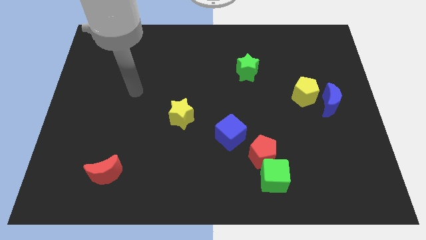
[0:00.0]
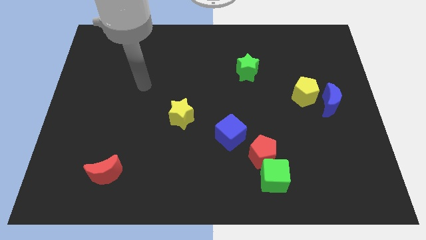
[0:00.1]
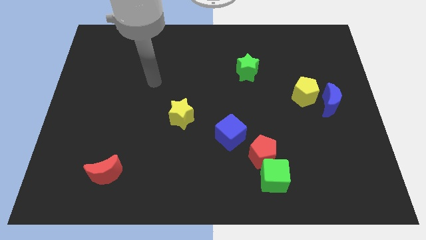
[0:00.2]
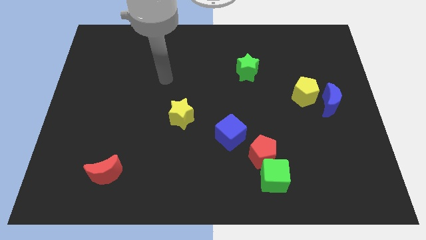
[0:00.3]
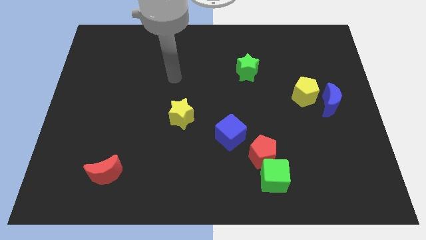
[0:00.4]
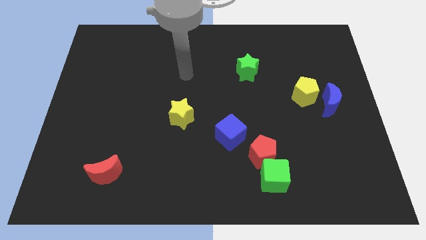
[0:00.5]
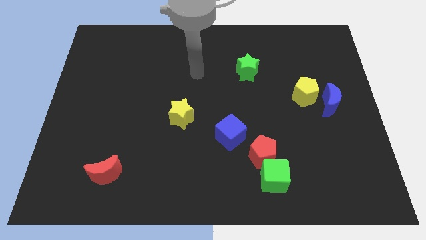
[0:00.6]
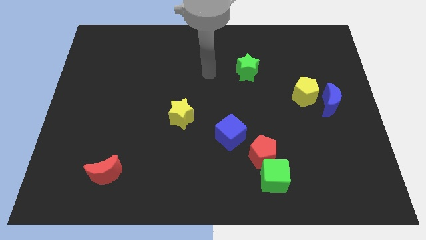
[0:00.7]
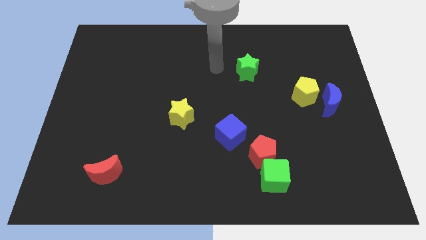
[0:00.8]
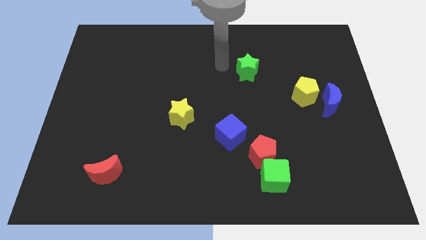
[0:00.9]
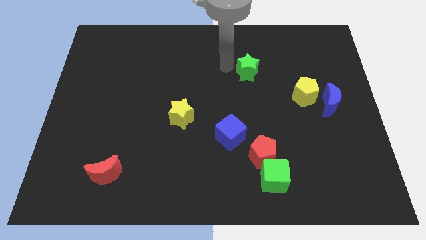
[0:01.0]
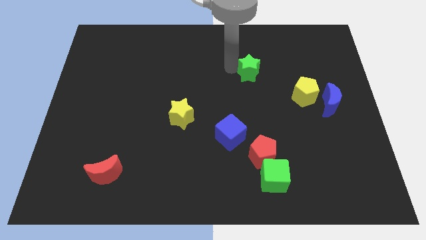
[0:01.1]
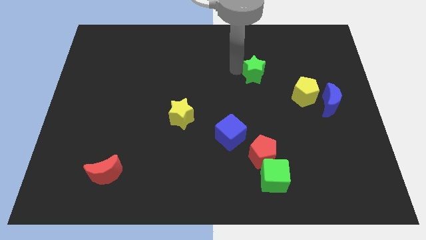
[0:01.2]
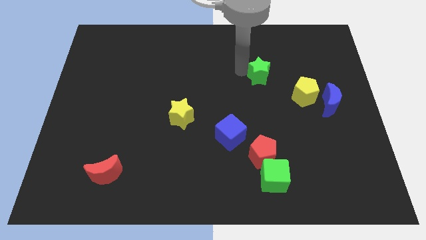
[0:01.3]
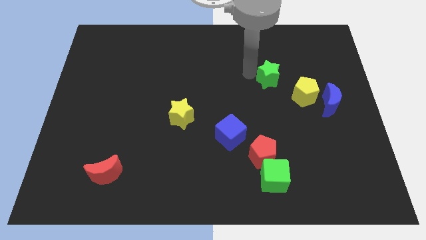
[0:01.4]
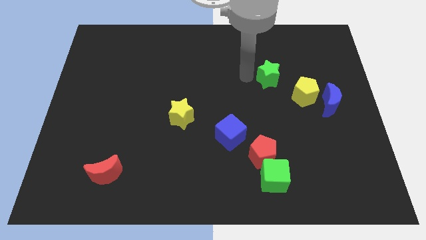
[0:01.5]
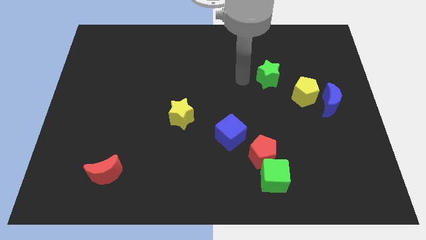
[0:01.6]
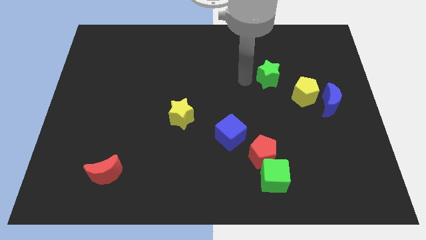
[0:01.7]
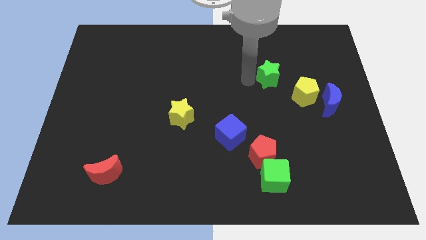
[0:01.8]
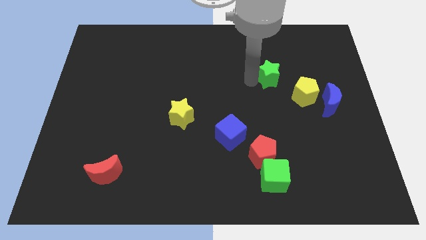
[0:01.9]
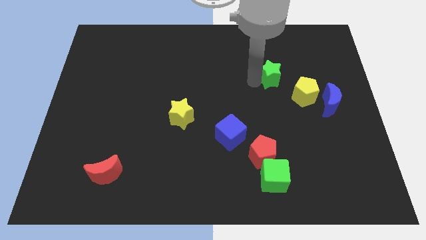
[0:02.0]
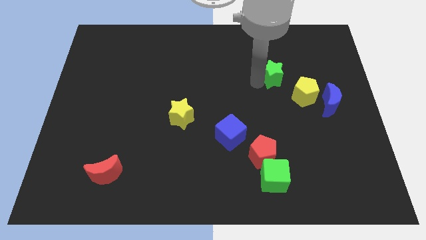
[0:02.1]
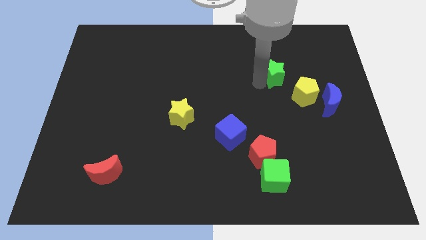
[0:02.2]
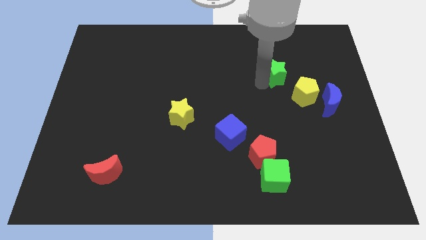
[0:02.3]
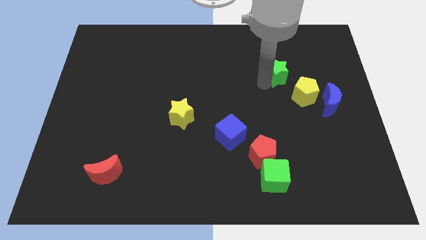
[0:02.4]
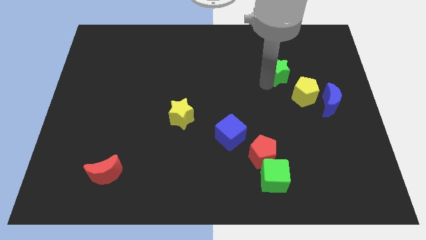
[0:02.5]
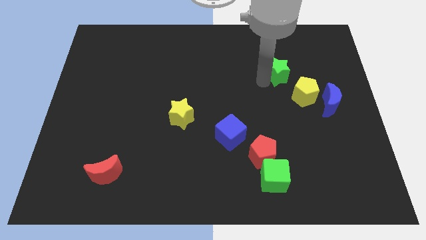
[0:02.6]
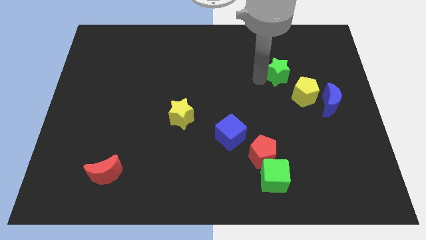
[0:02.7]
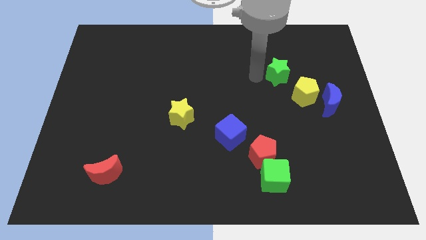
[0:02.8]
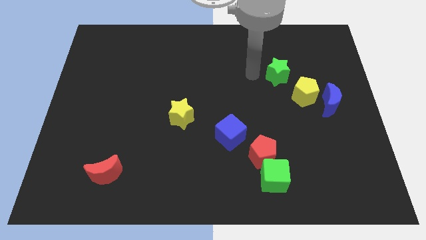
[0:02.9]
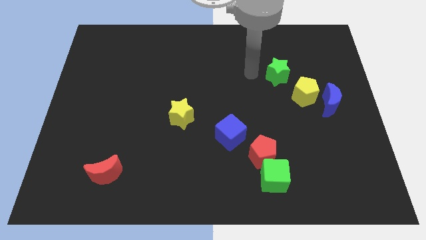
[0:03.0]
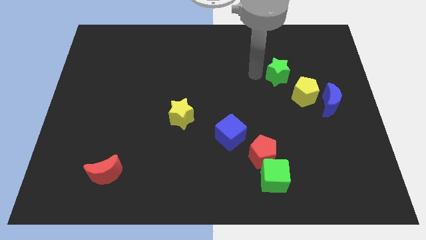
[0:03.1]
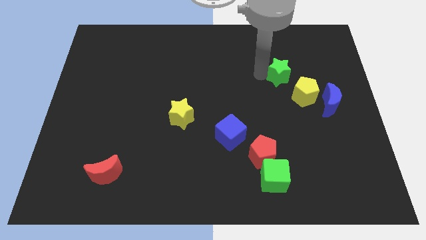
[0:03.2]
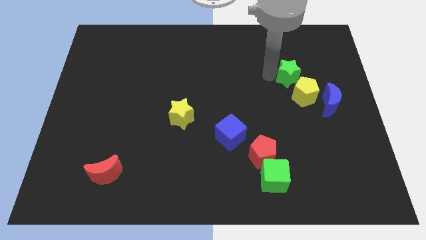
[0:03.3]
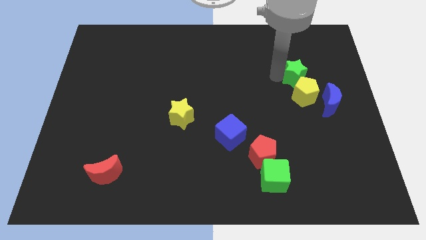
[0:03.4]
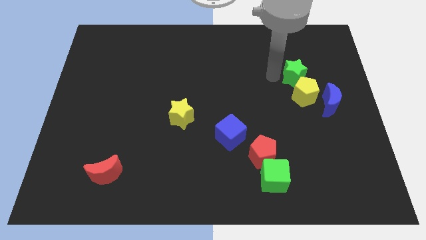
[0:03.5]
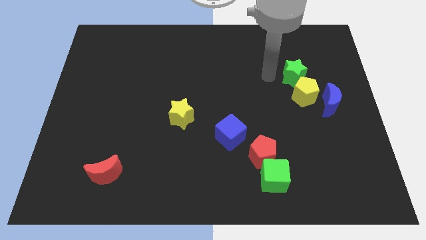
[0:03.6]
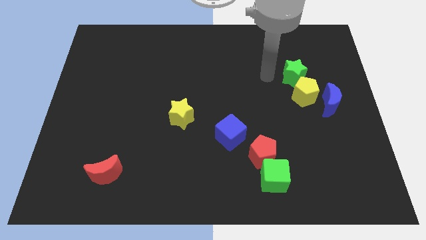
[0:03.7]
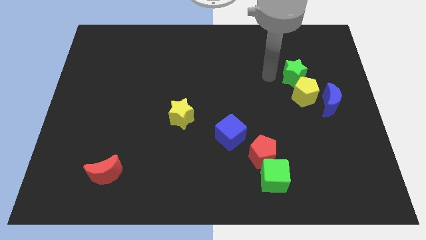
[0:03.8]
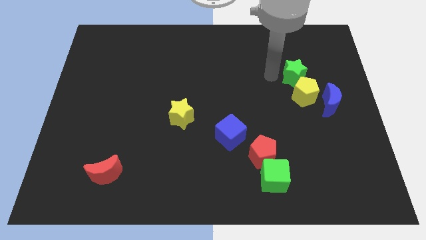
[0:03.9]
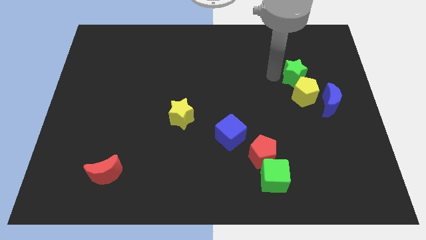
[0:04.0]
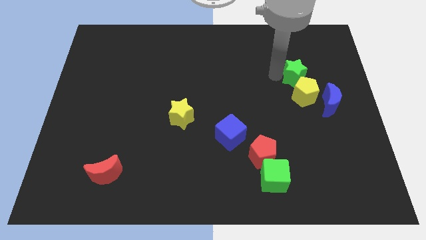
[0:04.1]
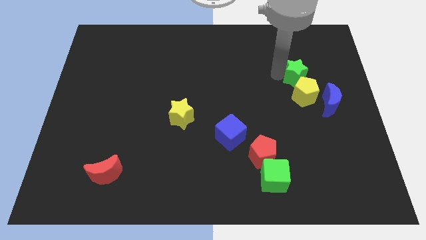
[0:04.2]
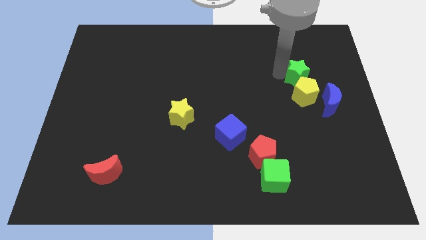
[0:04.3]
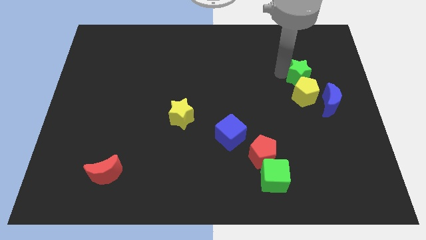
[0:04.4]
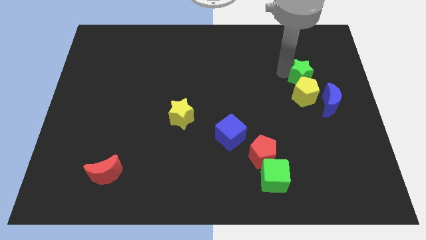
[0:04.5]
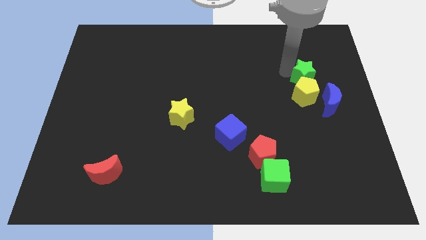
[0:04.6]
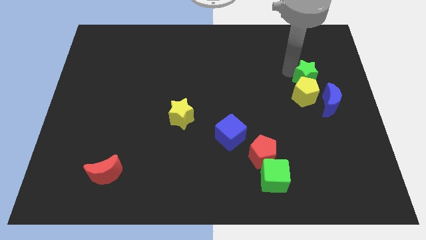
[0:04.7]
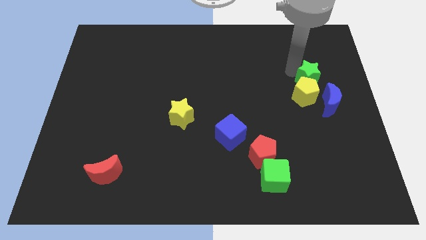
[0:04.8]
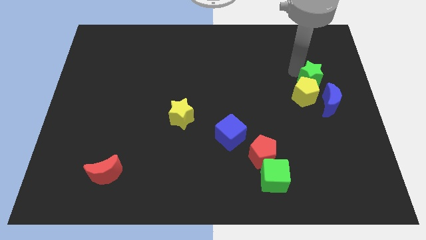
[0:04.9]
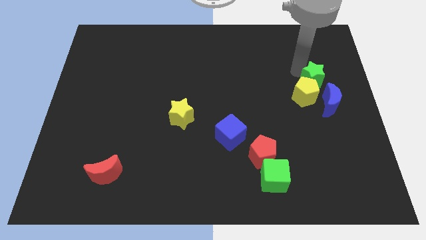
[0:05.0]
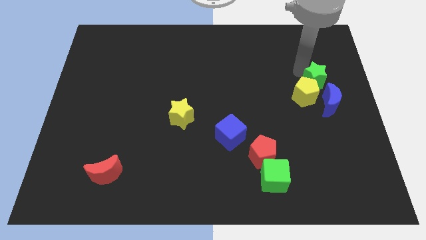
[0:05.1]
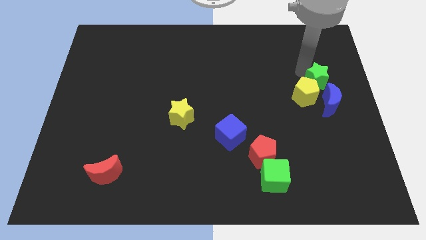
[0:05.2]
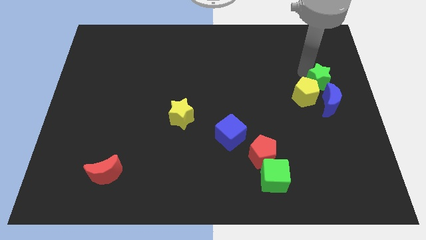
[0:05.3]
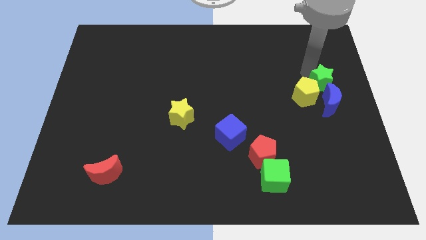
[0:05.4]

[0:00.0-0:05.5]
move the green star to the right side

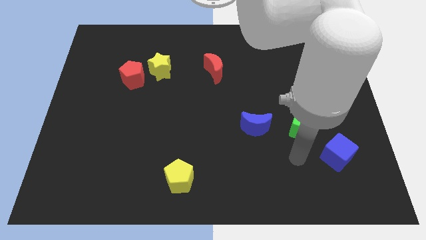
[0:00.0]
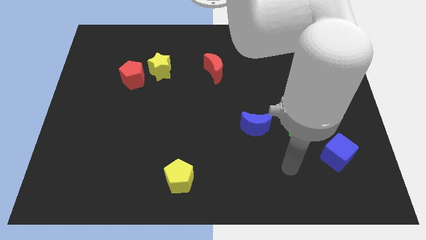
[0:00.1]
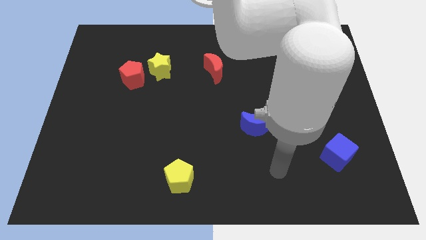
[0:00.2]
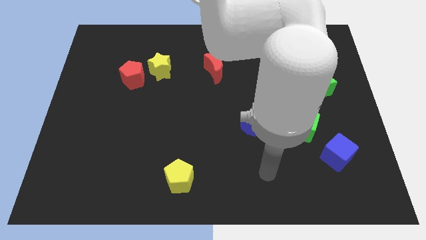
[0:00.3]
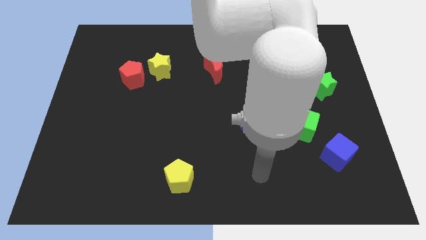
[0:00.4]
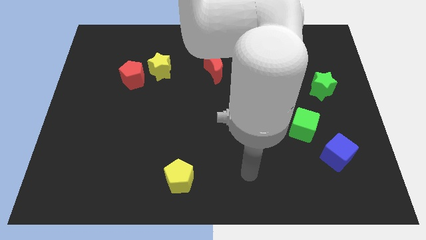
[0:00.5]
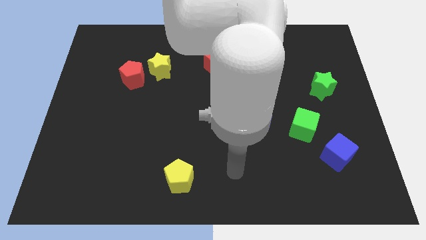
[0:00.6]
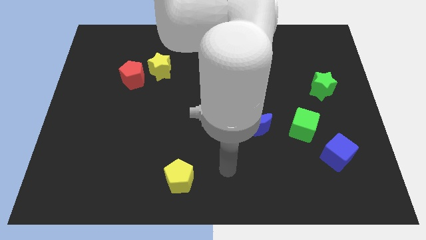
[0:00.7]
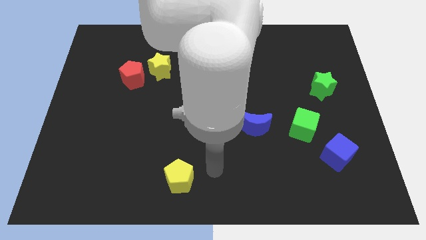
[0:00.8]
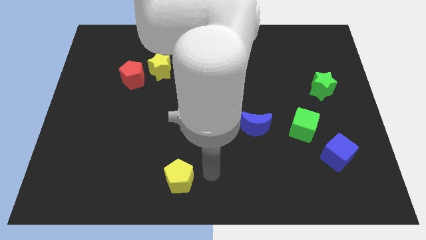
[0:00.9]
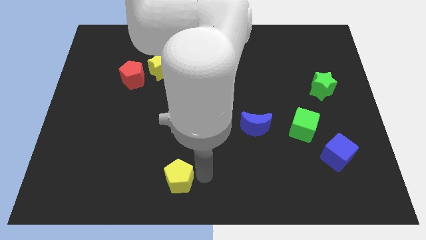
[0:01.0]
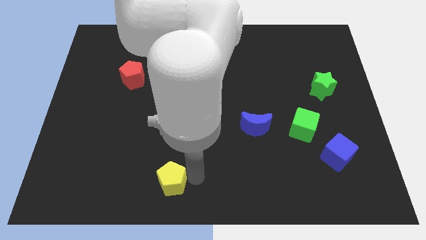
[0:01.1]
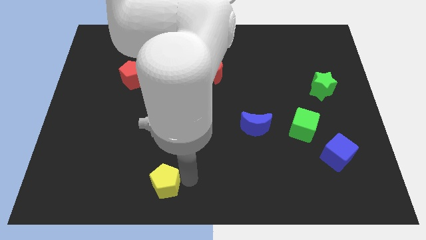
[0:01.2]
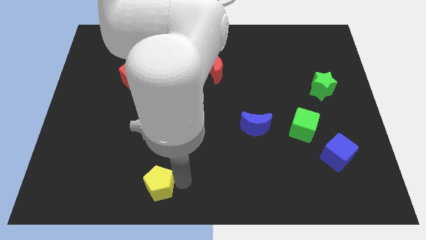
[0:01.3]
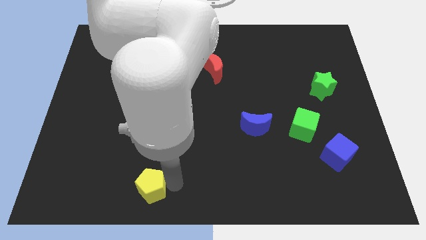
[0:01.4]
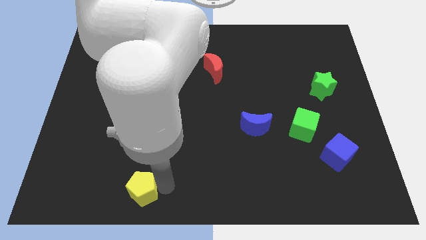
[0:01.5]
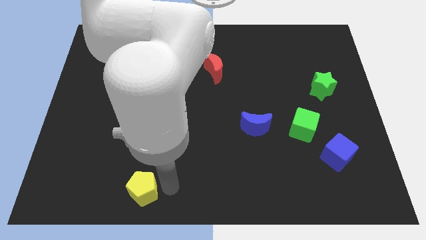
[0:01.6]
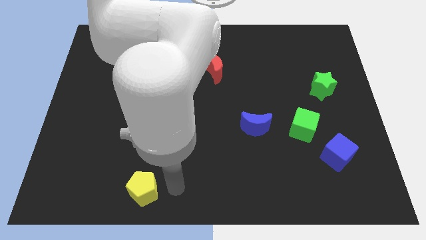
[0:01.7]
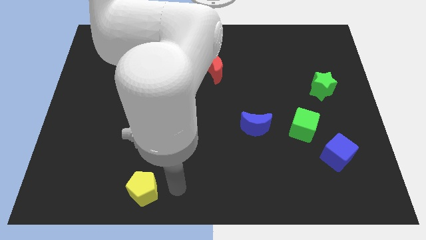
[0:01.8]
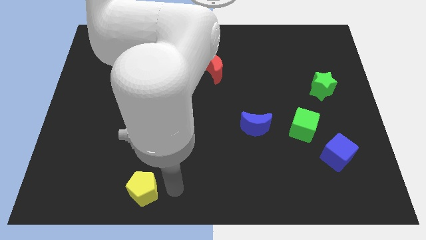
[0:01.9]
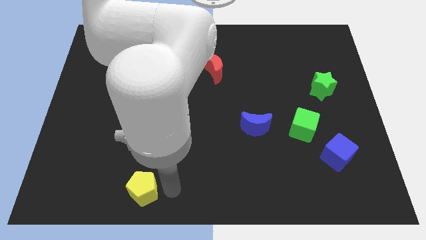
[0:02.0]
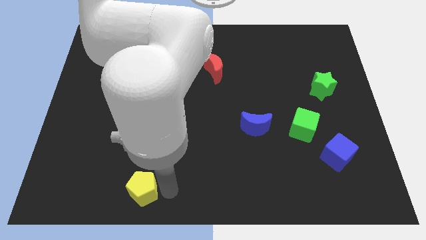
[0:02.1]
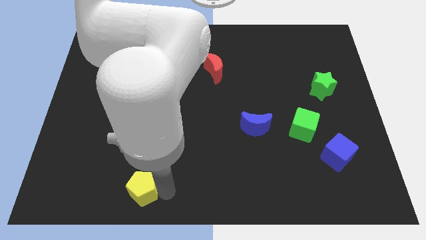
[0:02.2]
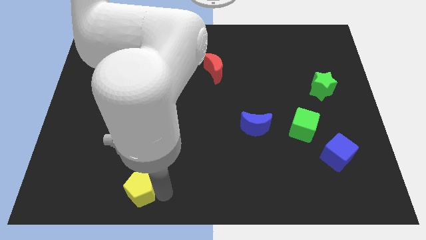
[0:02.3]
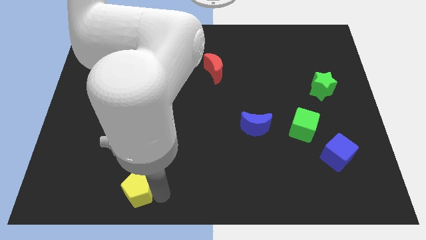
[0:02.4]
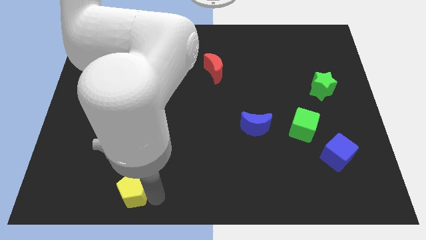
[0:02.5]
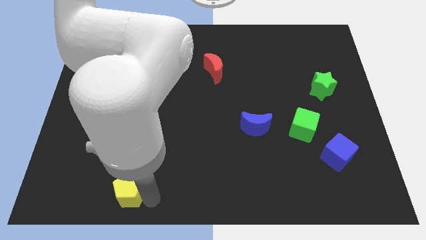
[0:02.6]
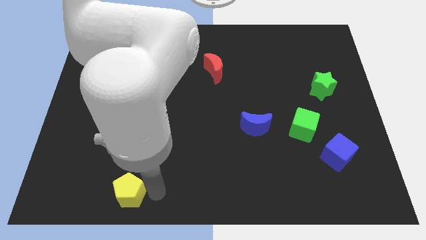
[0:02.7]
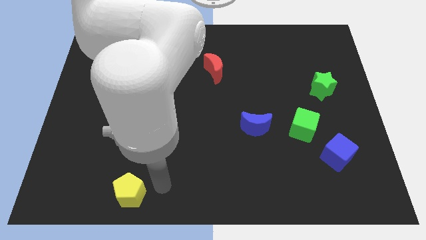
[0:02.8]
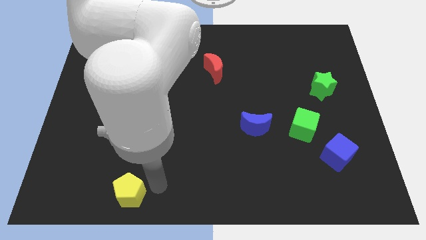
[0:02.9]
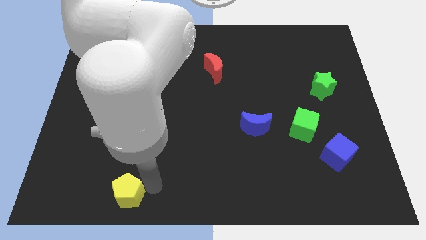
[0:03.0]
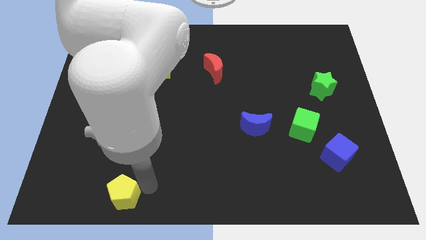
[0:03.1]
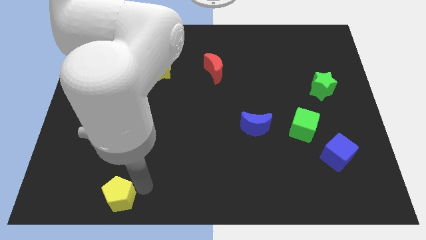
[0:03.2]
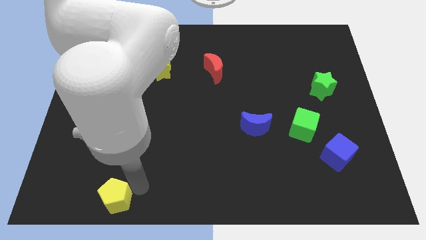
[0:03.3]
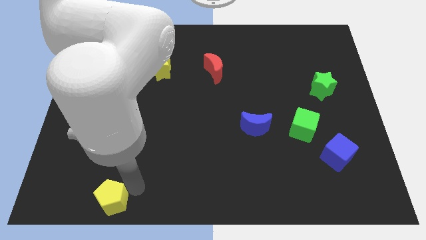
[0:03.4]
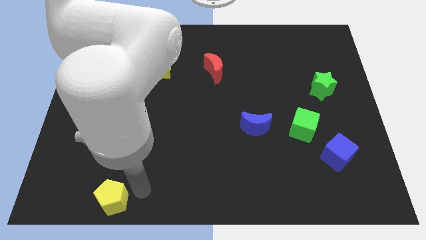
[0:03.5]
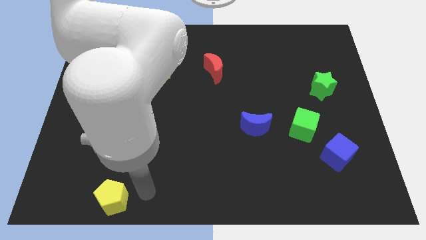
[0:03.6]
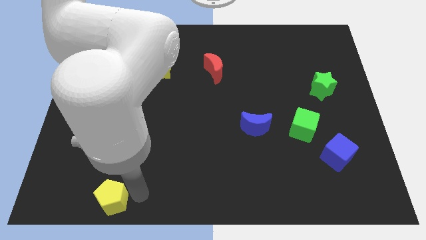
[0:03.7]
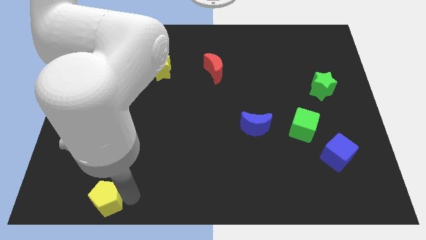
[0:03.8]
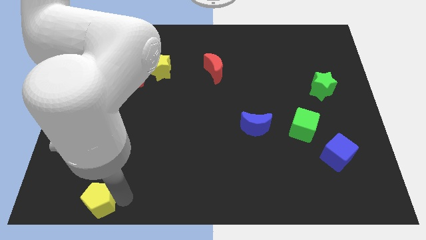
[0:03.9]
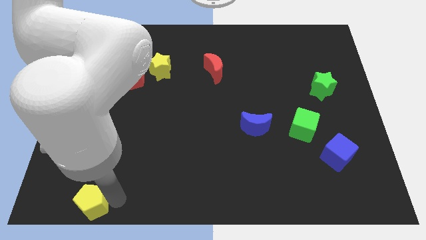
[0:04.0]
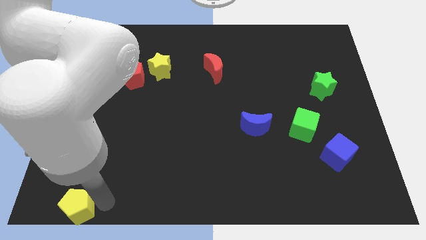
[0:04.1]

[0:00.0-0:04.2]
put the yellow pentagon to the bottom left of the board
